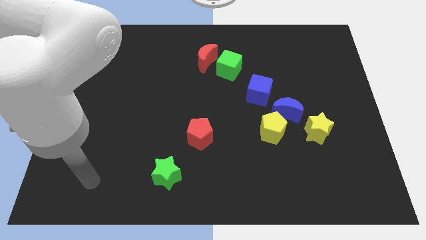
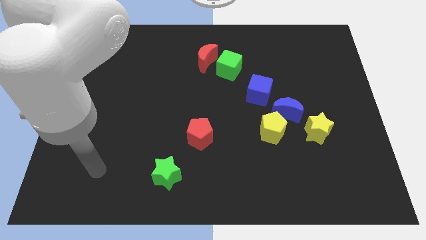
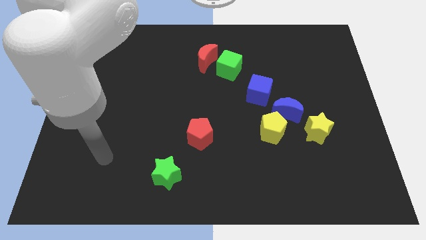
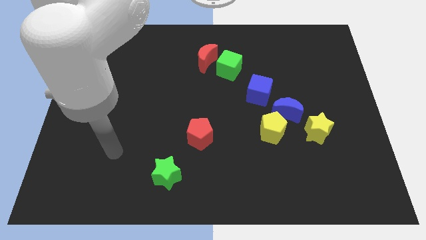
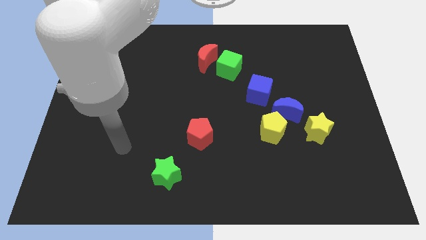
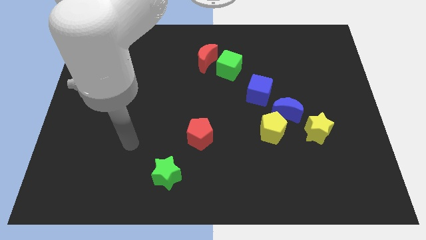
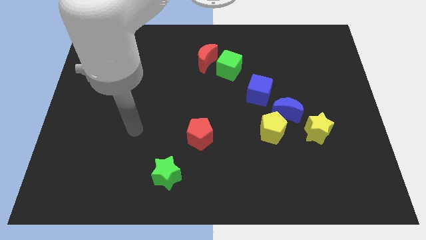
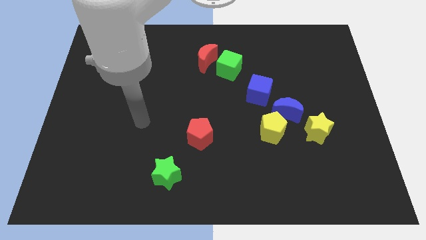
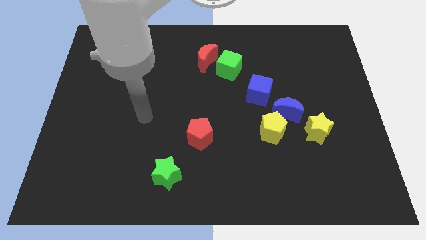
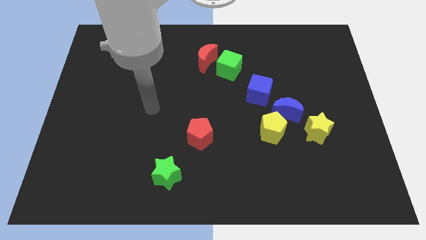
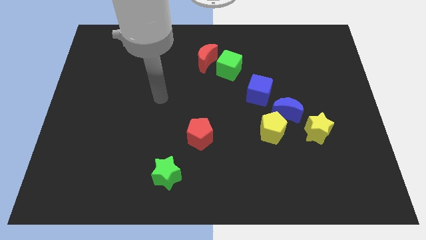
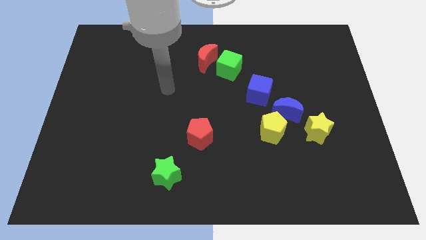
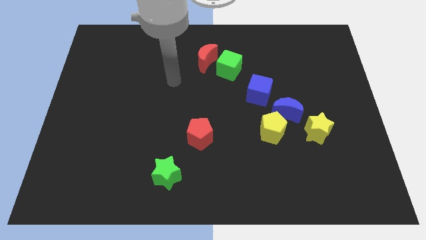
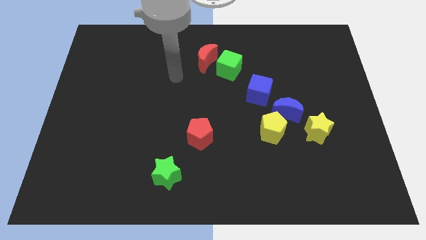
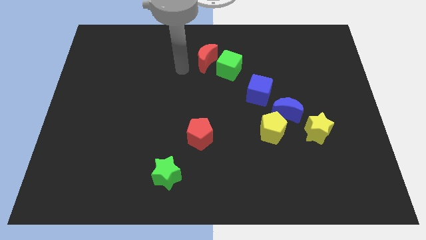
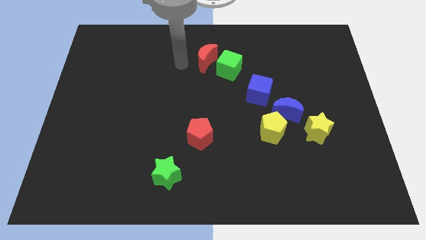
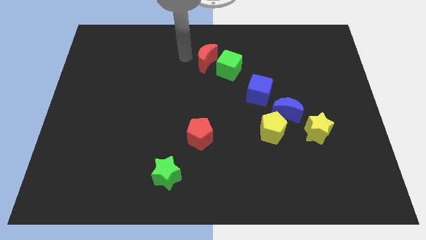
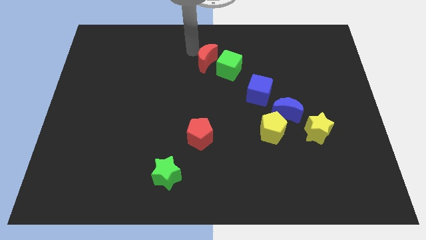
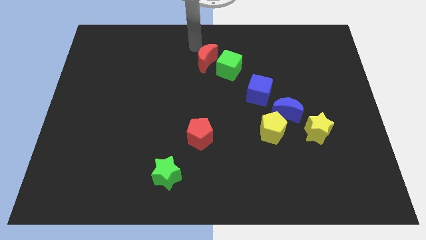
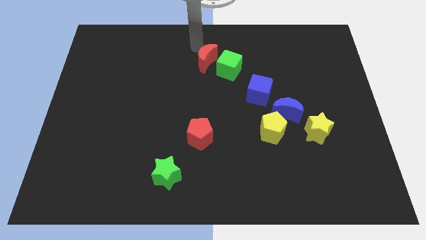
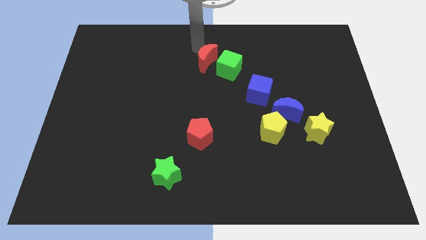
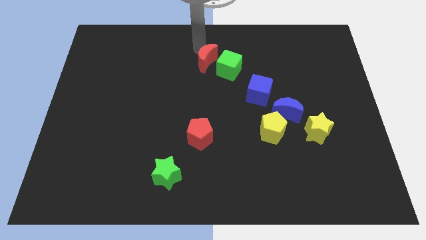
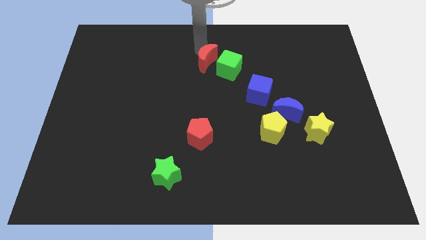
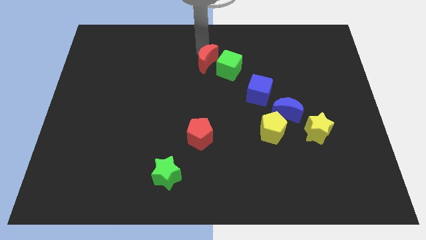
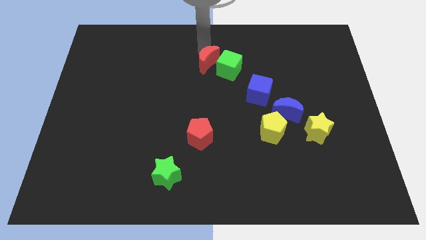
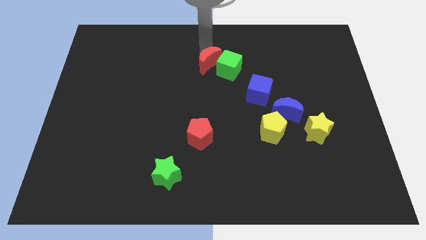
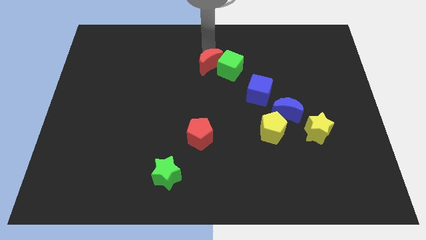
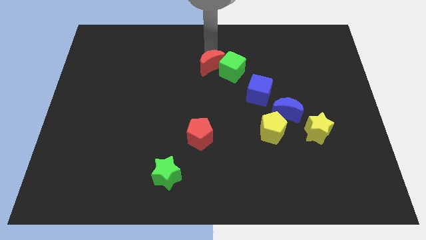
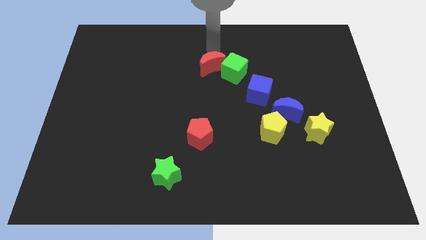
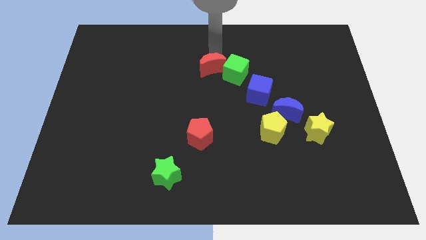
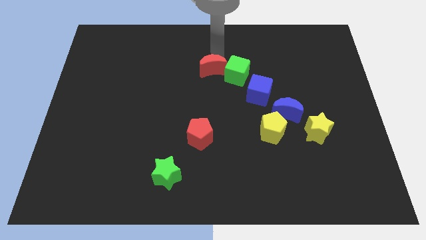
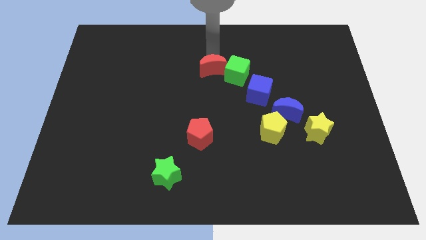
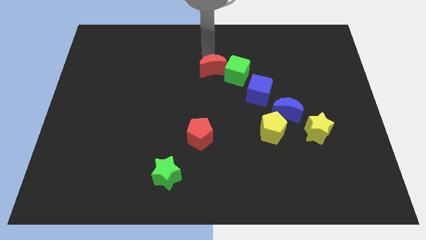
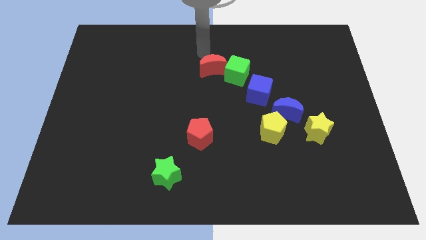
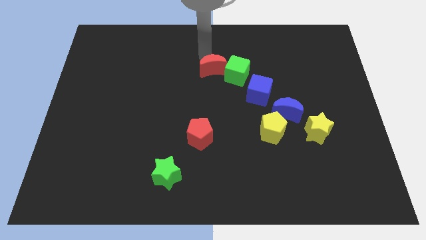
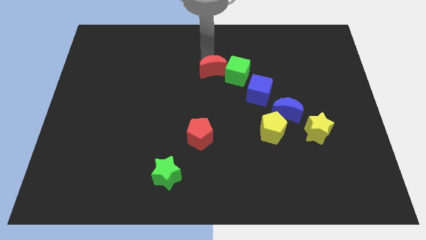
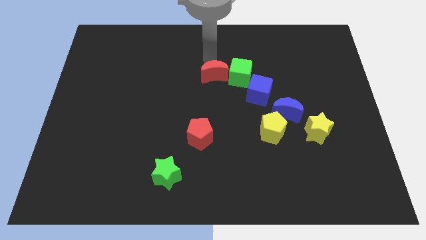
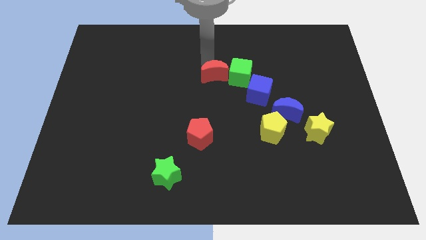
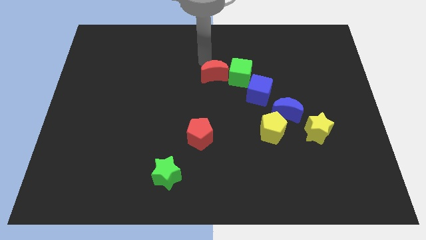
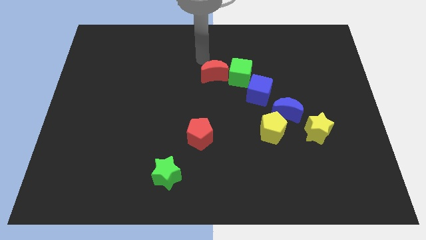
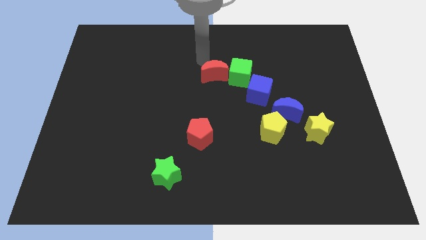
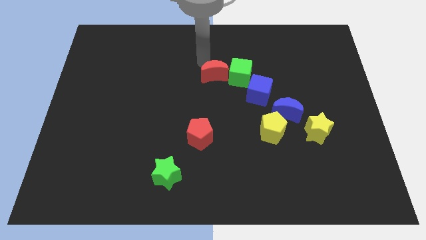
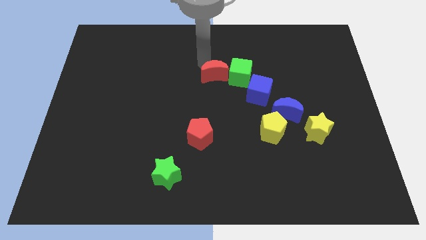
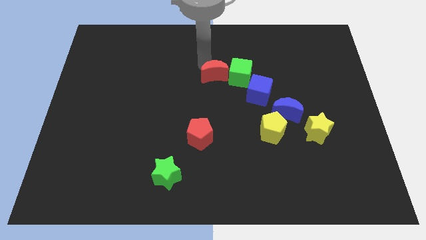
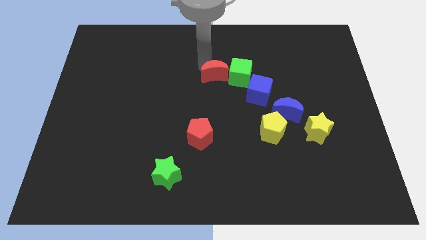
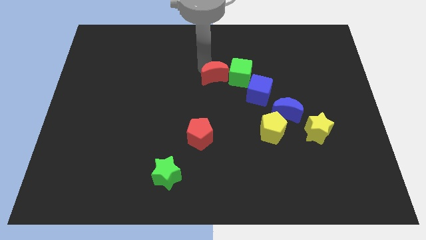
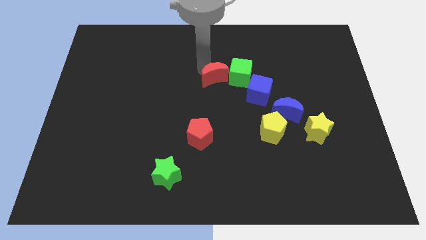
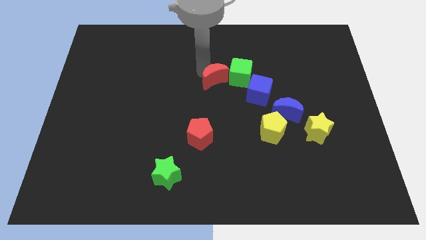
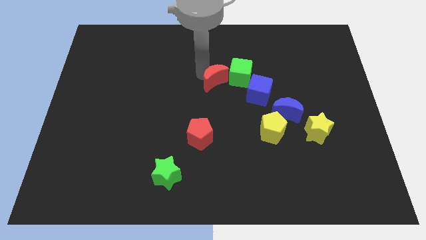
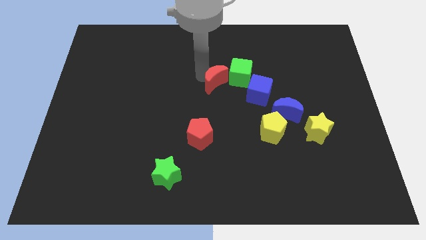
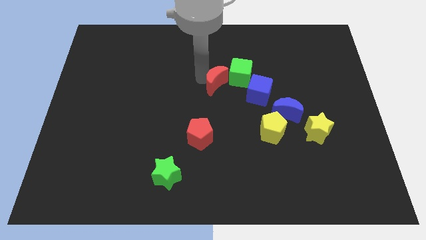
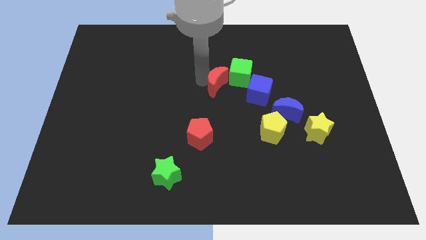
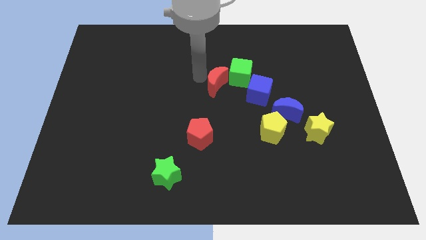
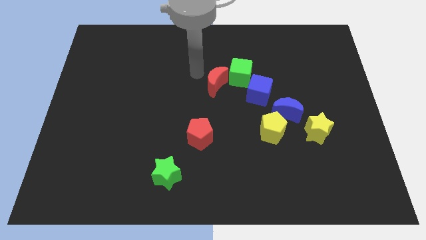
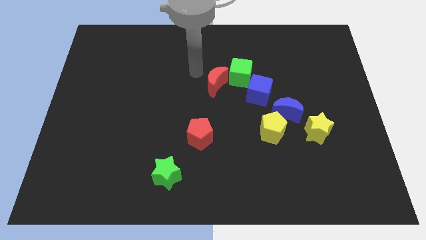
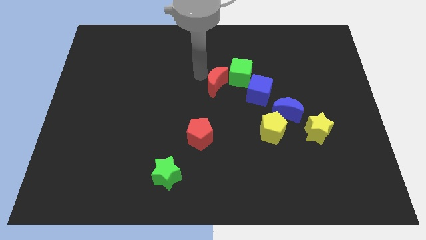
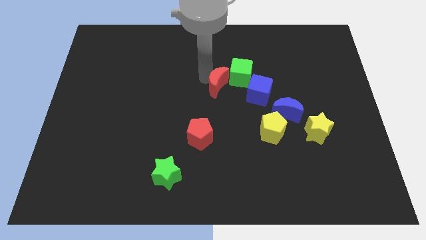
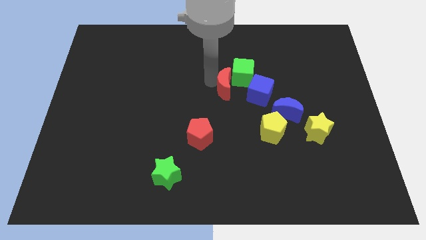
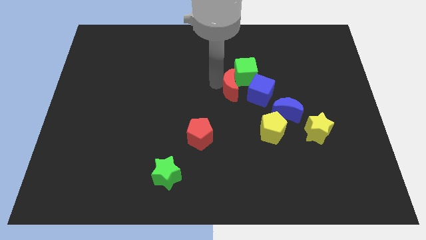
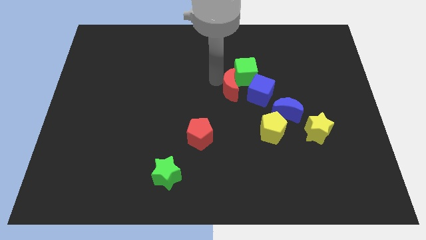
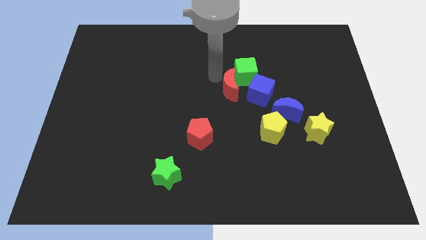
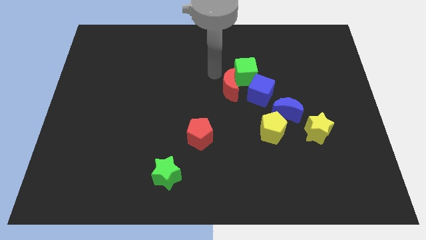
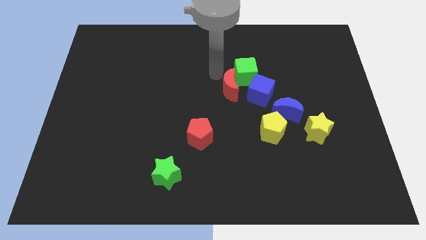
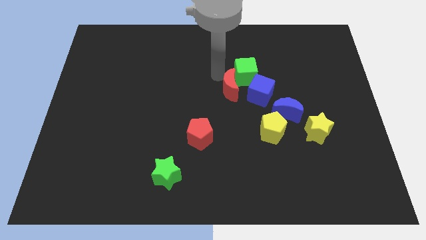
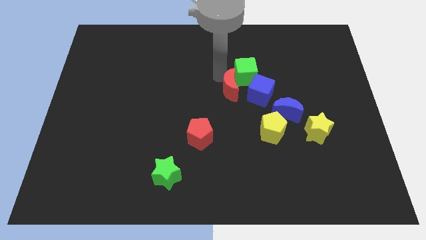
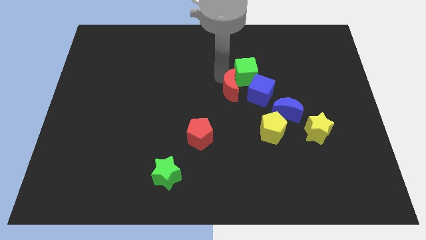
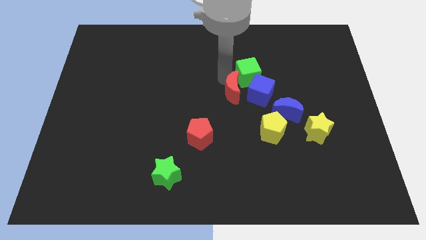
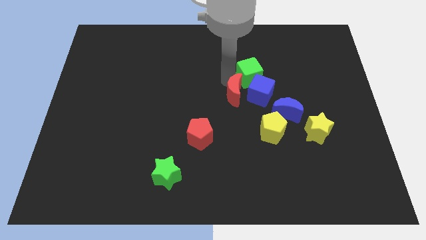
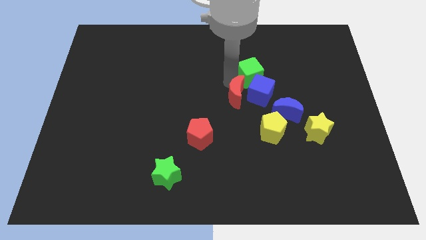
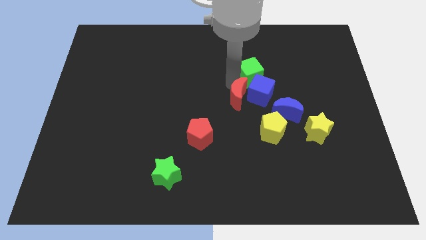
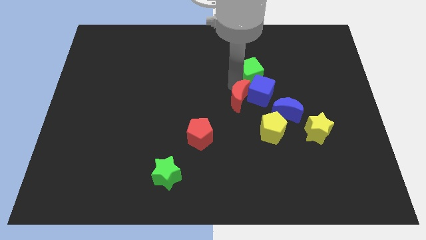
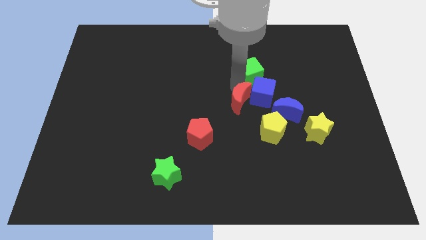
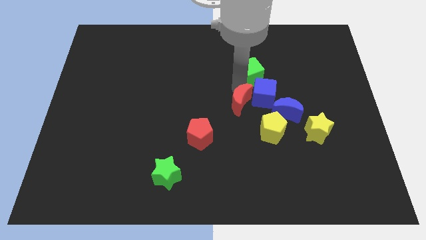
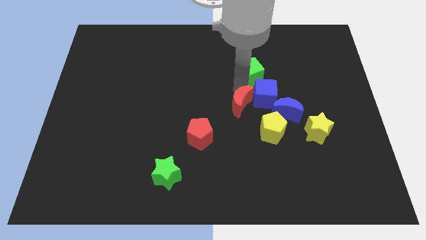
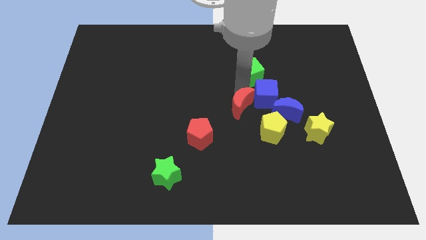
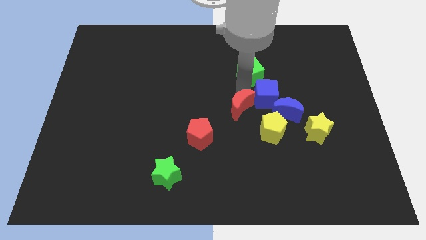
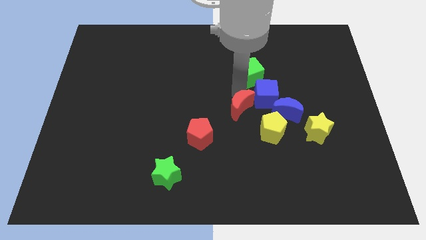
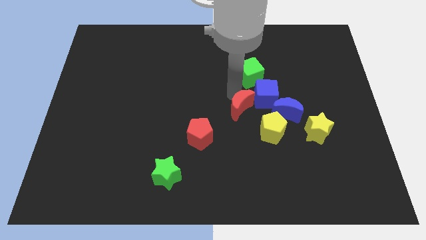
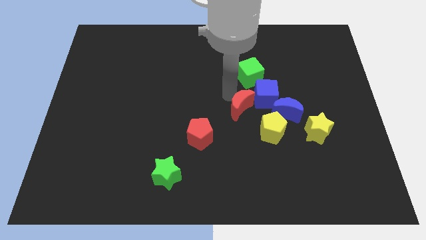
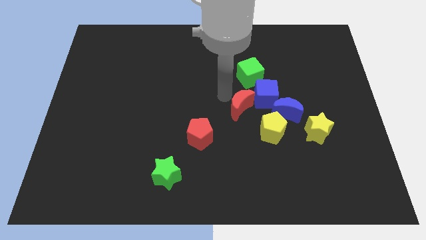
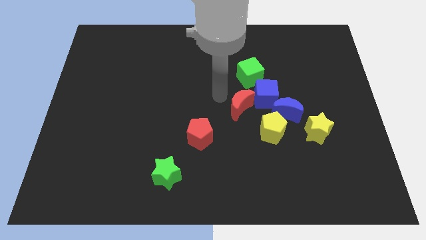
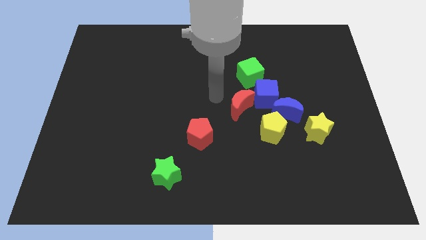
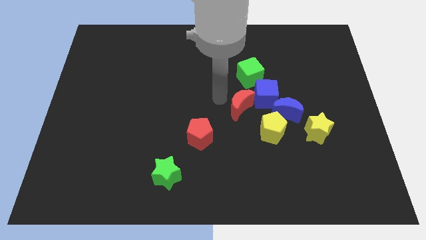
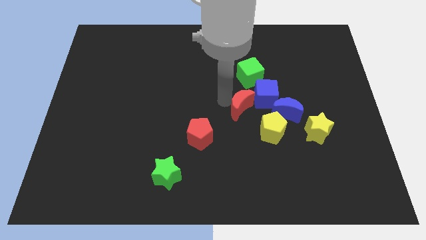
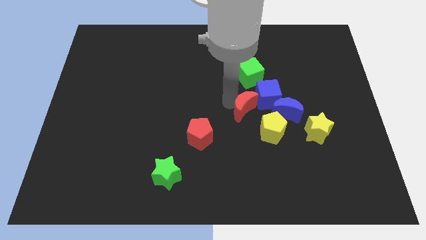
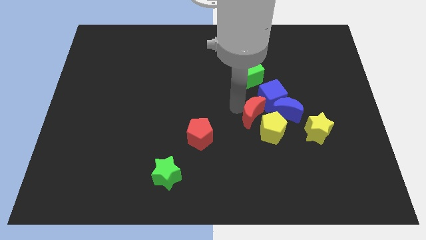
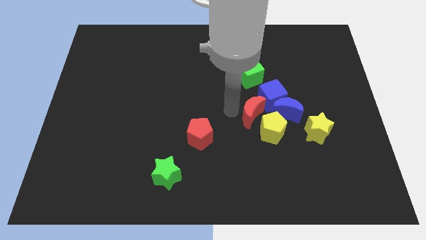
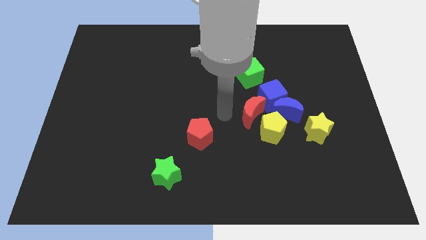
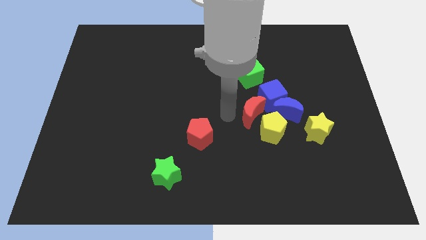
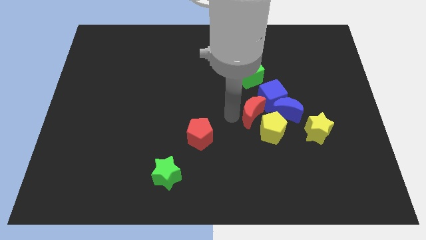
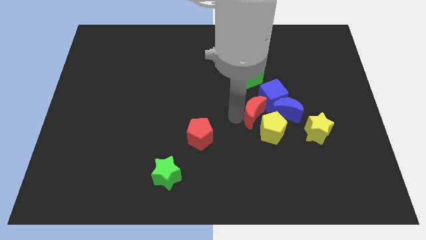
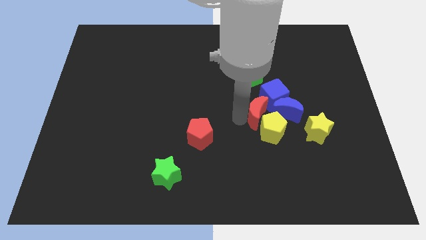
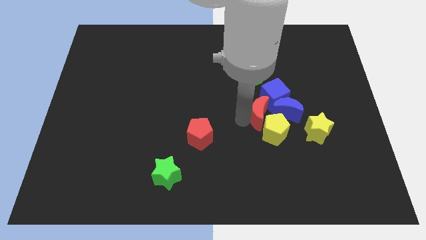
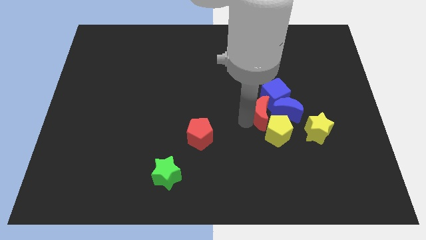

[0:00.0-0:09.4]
push the red moon towards the blue moon
